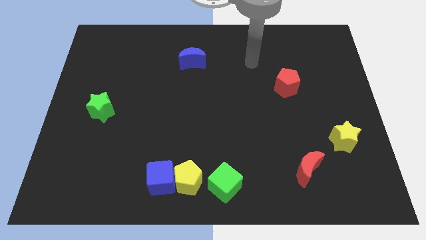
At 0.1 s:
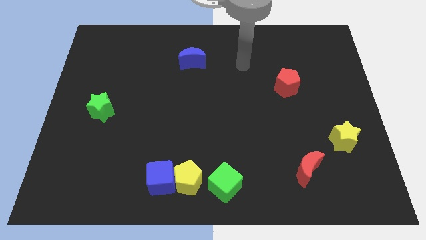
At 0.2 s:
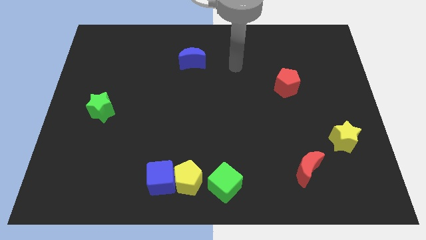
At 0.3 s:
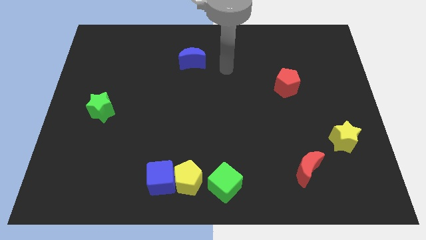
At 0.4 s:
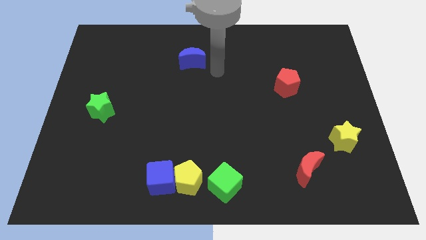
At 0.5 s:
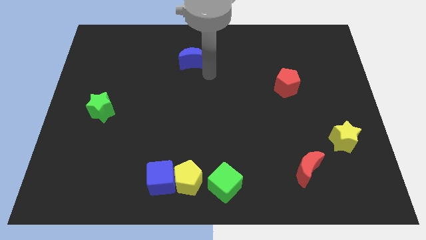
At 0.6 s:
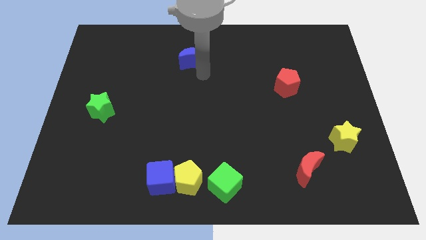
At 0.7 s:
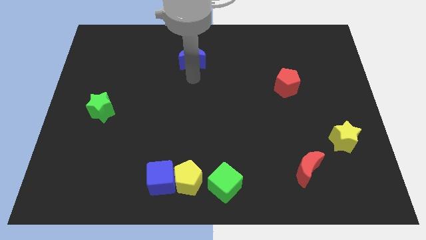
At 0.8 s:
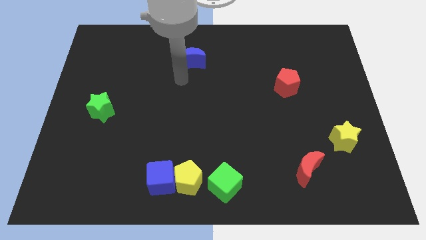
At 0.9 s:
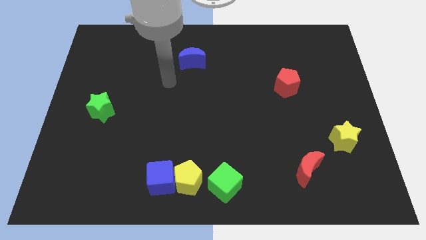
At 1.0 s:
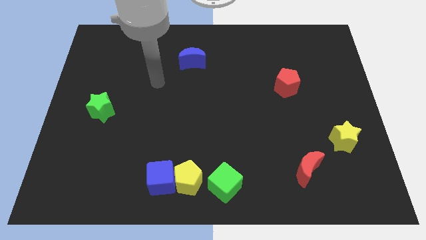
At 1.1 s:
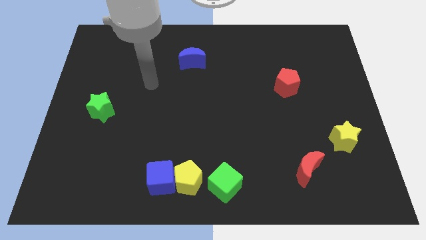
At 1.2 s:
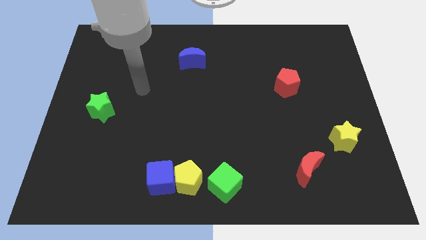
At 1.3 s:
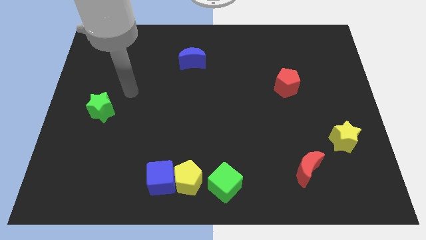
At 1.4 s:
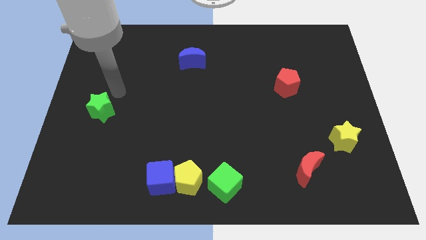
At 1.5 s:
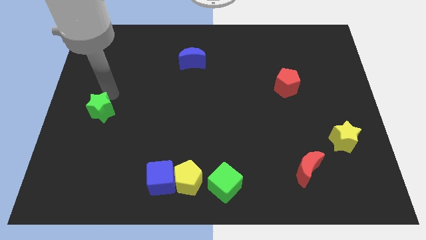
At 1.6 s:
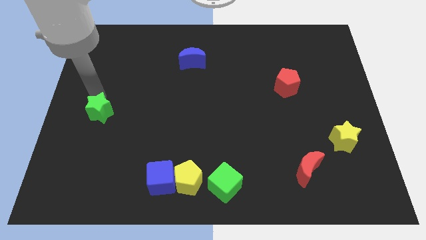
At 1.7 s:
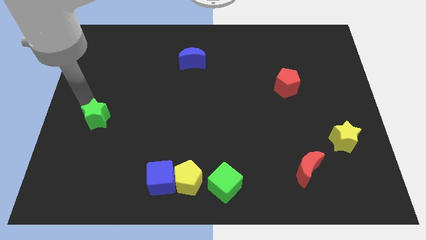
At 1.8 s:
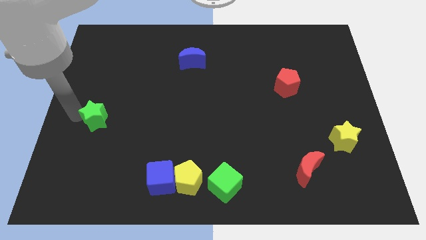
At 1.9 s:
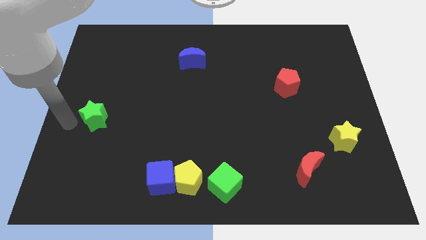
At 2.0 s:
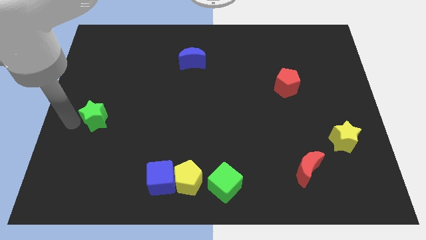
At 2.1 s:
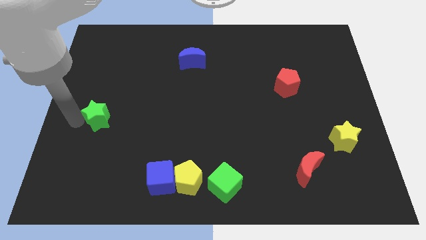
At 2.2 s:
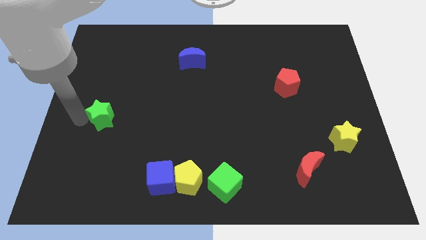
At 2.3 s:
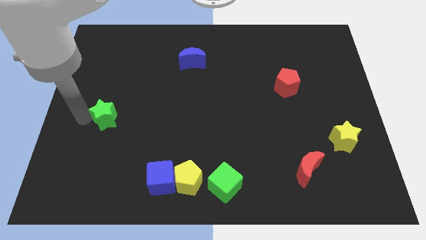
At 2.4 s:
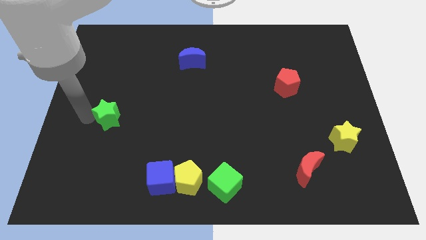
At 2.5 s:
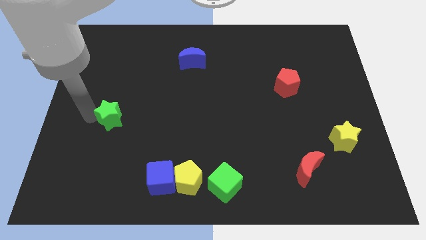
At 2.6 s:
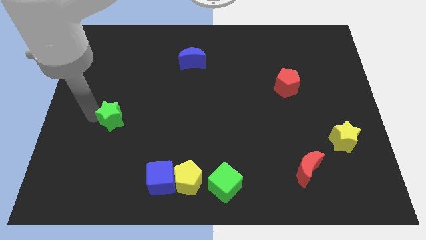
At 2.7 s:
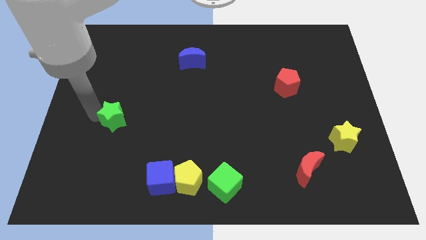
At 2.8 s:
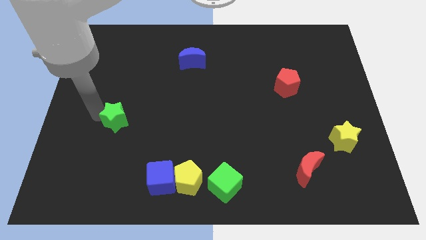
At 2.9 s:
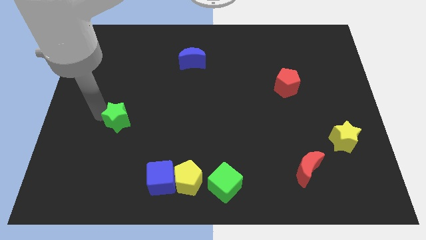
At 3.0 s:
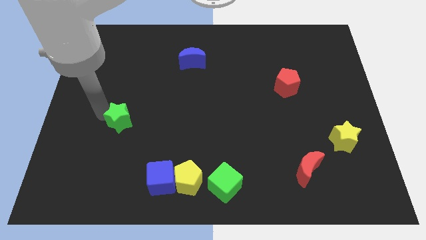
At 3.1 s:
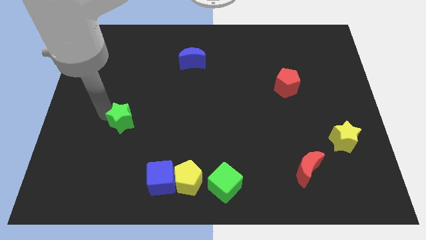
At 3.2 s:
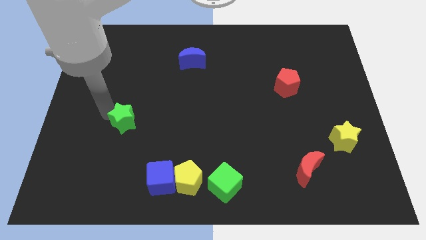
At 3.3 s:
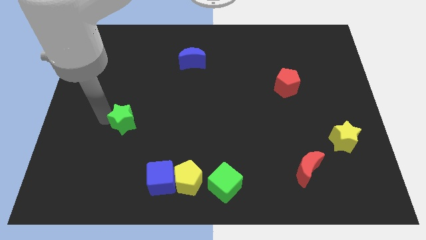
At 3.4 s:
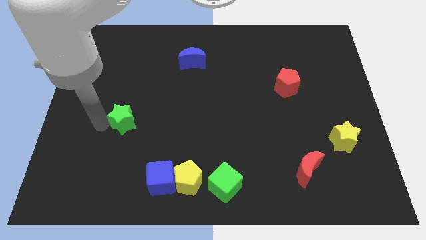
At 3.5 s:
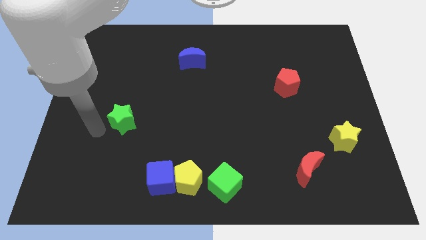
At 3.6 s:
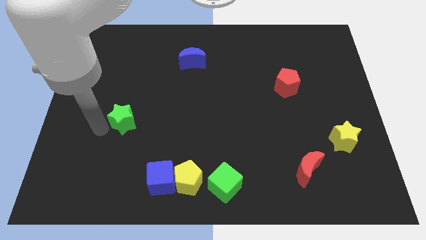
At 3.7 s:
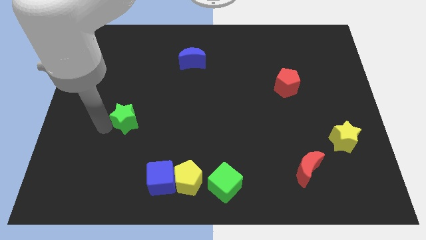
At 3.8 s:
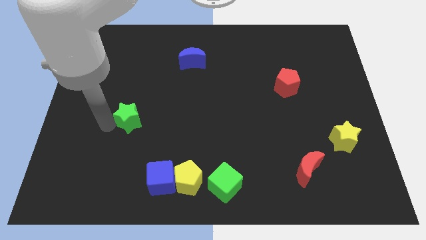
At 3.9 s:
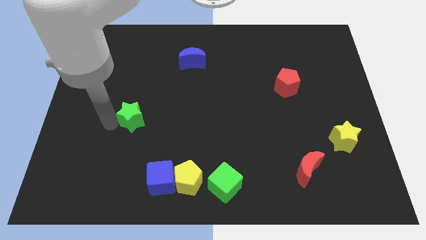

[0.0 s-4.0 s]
slightly slide the green star to the right

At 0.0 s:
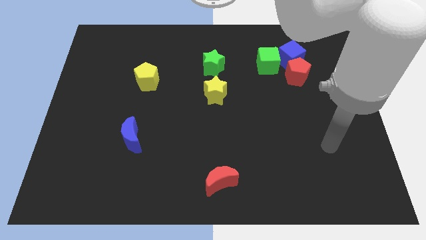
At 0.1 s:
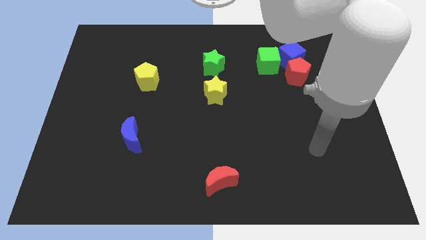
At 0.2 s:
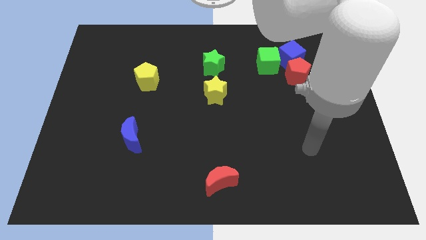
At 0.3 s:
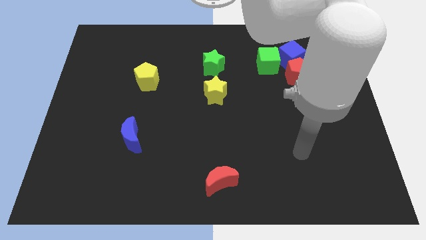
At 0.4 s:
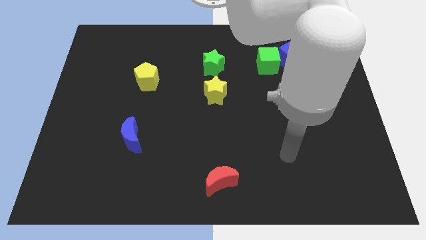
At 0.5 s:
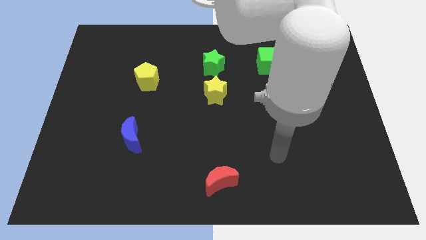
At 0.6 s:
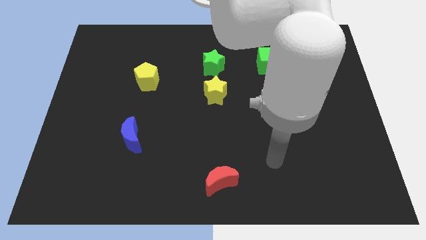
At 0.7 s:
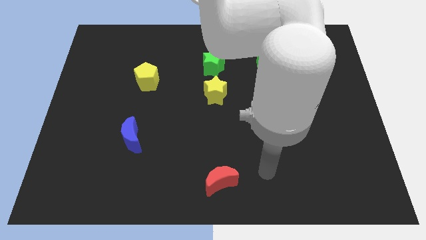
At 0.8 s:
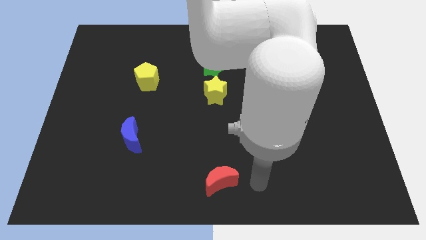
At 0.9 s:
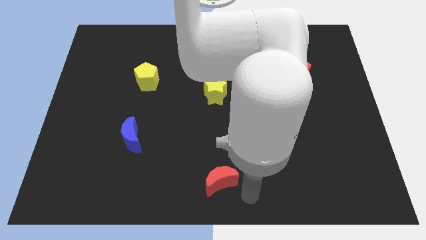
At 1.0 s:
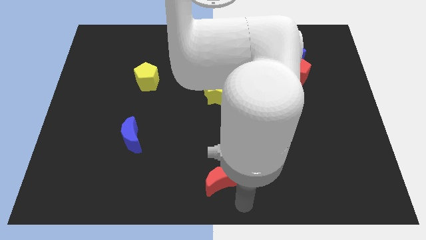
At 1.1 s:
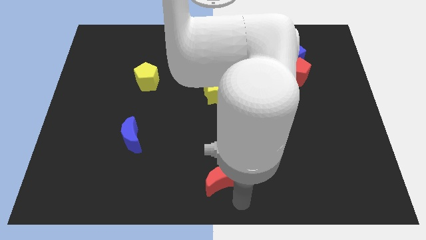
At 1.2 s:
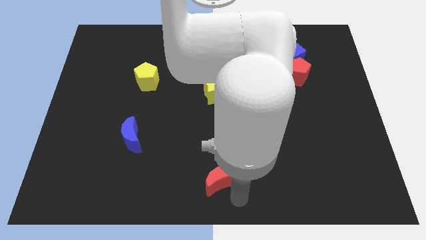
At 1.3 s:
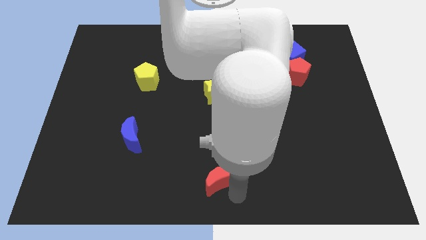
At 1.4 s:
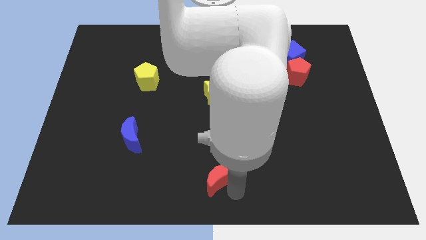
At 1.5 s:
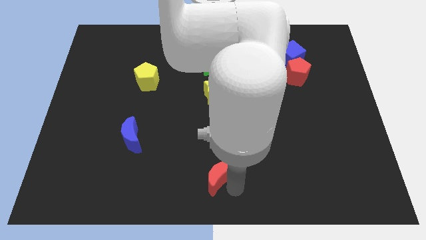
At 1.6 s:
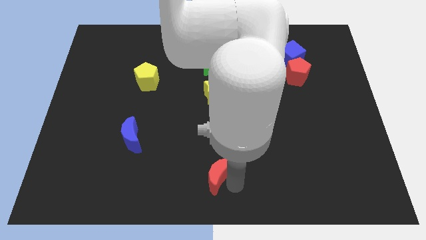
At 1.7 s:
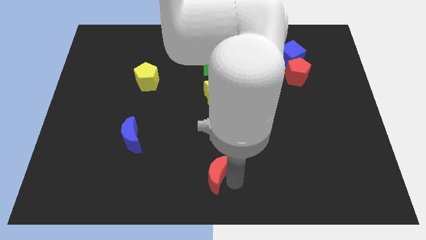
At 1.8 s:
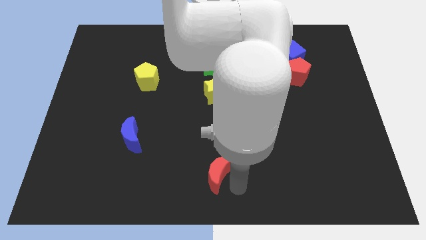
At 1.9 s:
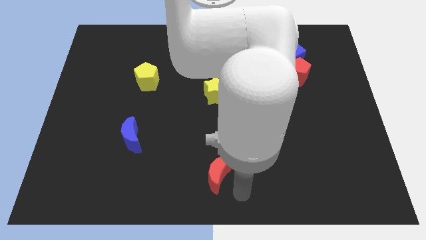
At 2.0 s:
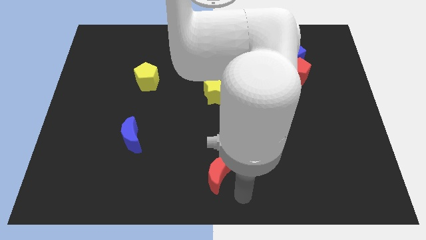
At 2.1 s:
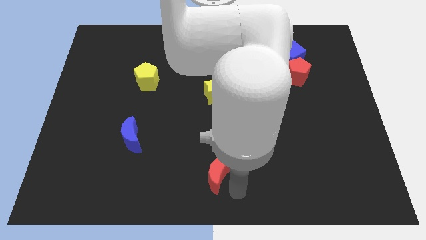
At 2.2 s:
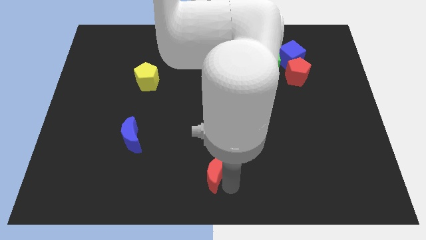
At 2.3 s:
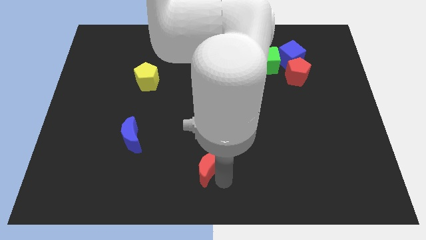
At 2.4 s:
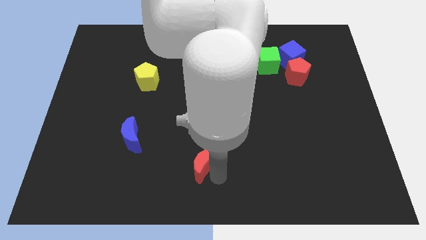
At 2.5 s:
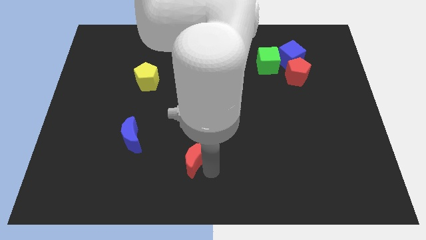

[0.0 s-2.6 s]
slightly move the red moon upwards and to the left diagonally

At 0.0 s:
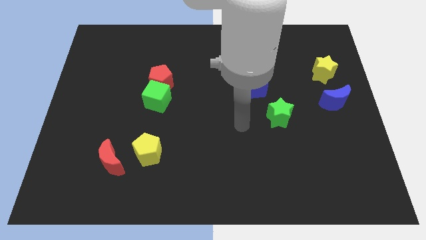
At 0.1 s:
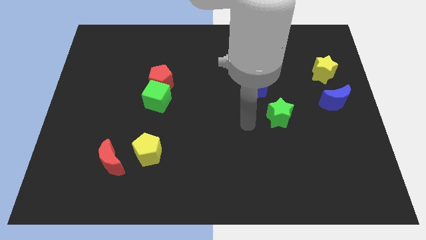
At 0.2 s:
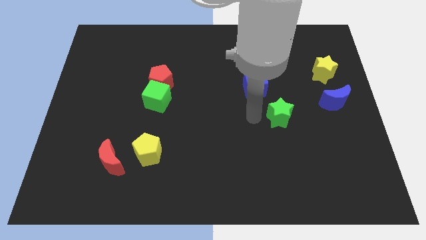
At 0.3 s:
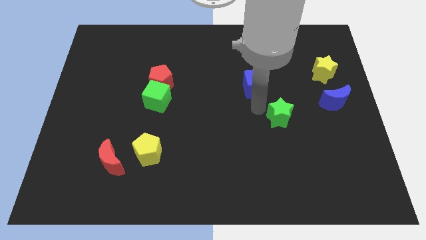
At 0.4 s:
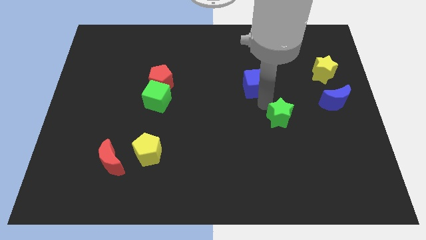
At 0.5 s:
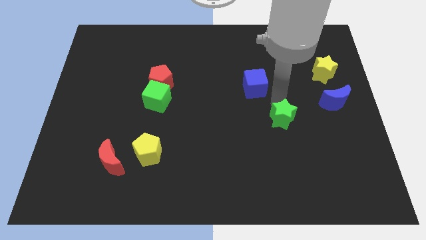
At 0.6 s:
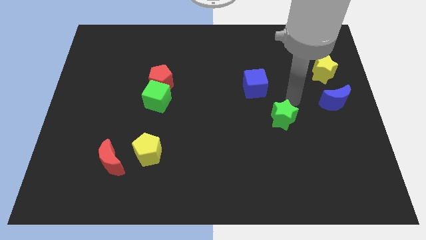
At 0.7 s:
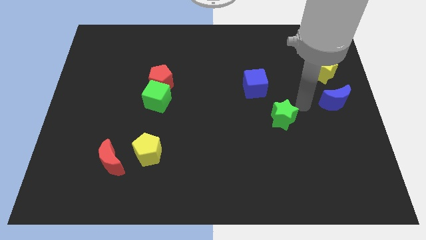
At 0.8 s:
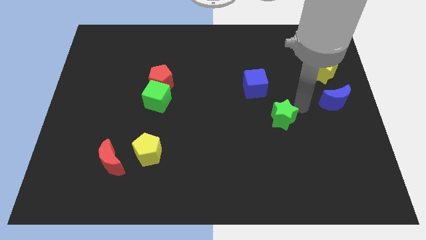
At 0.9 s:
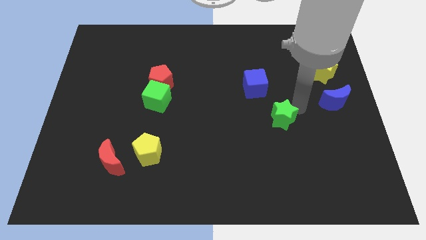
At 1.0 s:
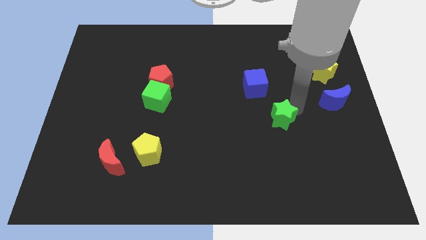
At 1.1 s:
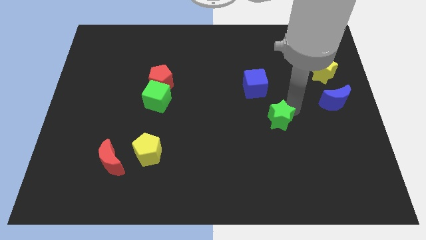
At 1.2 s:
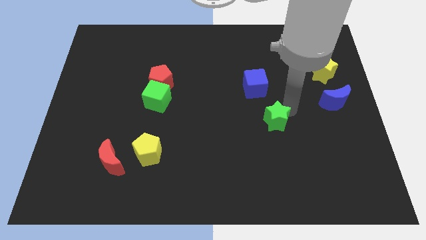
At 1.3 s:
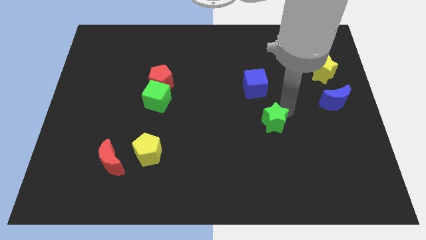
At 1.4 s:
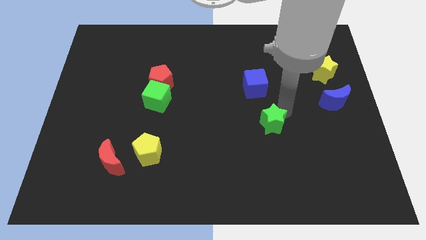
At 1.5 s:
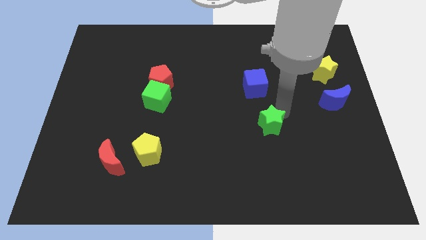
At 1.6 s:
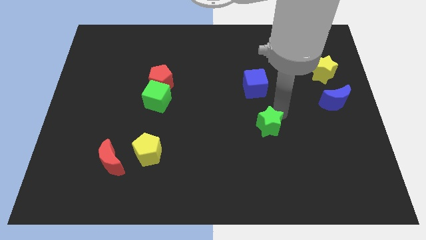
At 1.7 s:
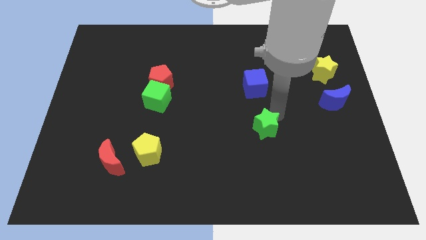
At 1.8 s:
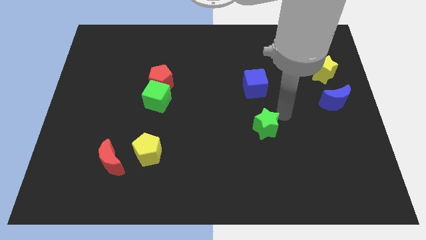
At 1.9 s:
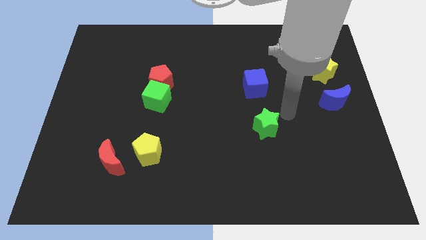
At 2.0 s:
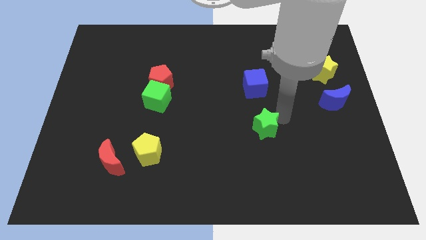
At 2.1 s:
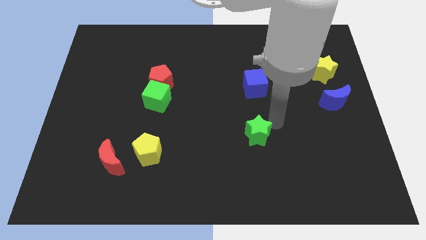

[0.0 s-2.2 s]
slide the green star slightly down and left
